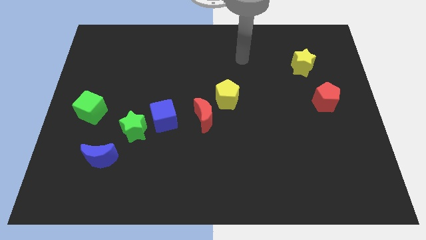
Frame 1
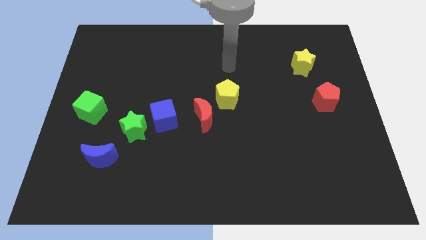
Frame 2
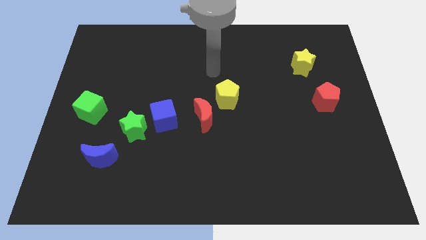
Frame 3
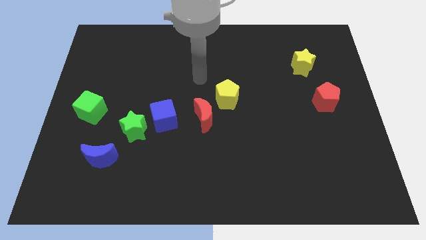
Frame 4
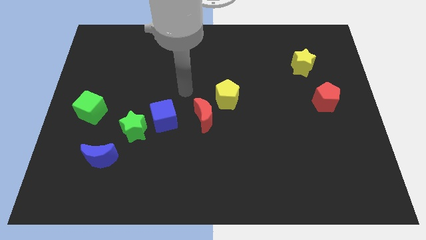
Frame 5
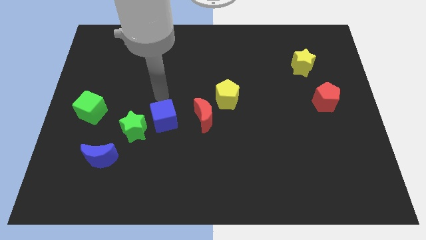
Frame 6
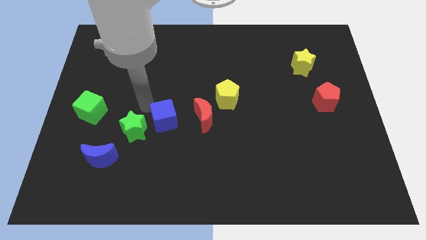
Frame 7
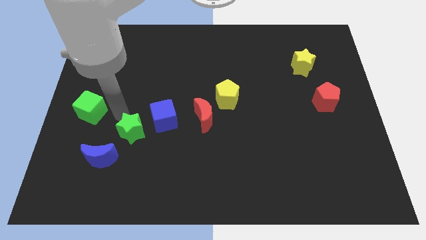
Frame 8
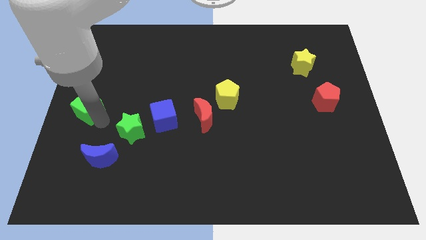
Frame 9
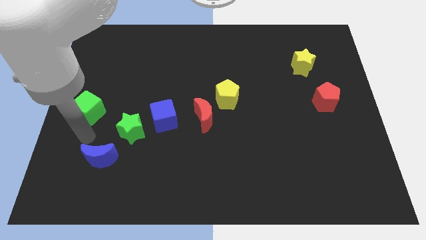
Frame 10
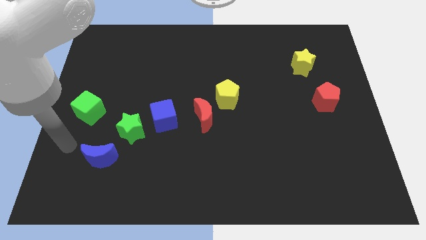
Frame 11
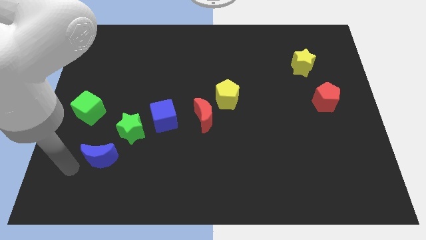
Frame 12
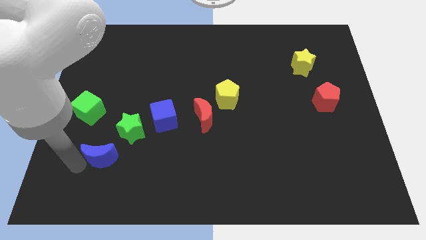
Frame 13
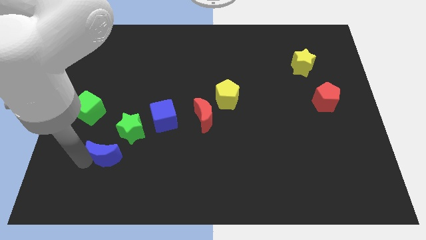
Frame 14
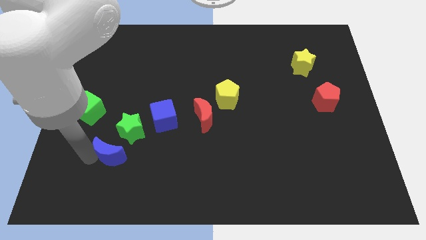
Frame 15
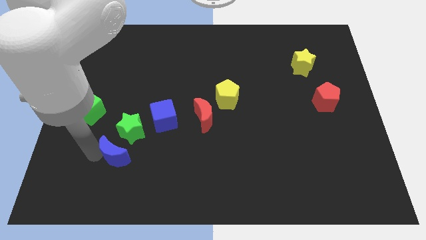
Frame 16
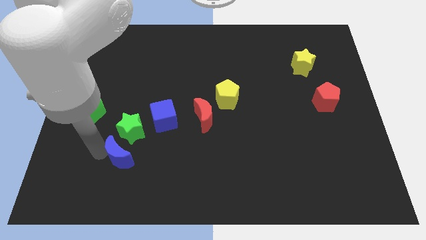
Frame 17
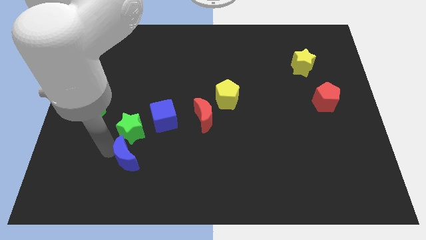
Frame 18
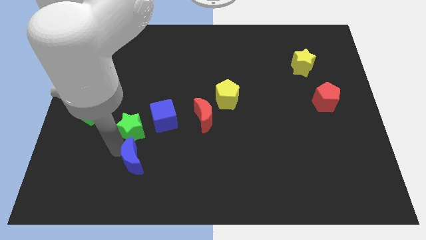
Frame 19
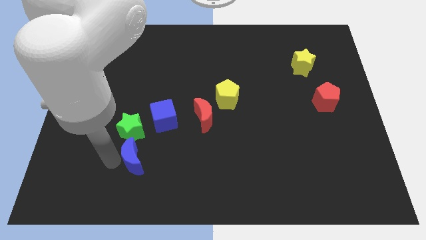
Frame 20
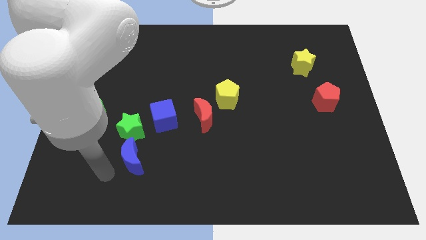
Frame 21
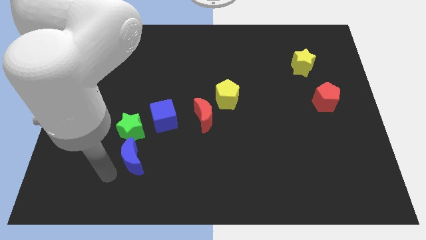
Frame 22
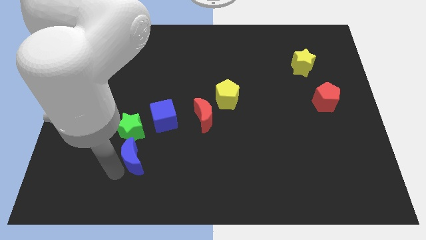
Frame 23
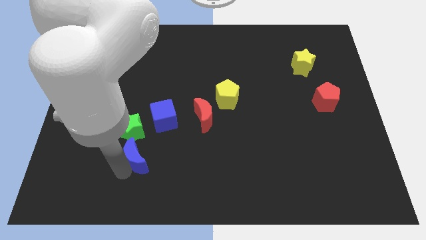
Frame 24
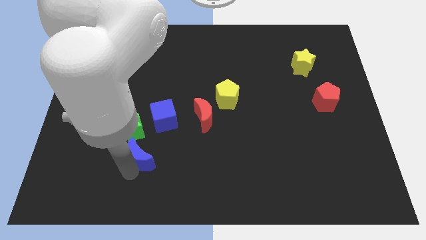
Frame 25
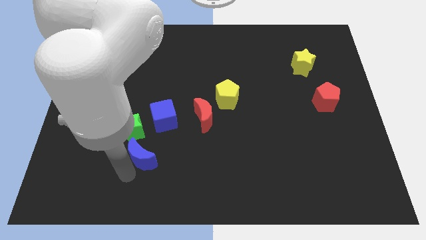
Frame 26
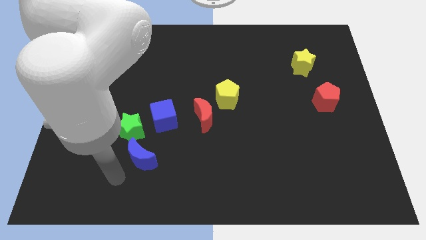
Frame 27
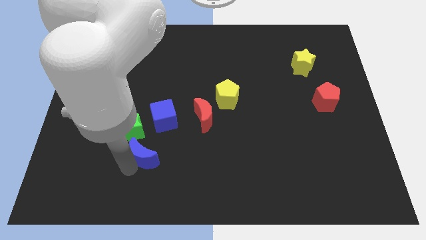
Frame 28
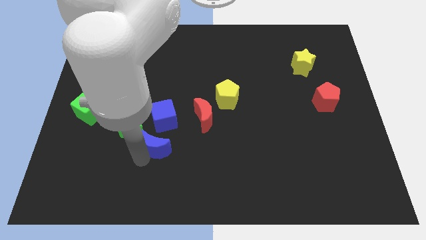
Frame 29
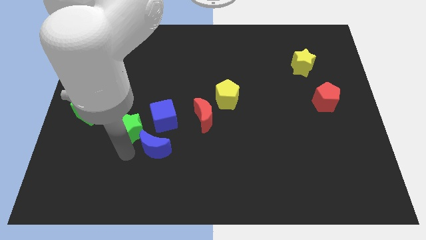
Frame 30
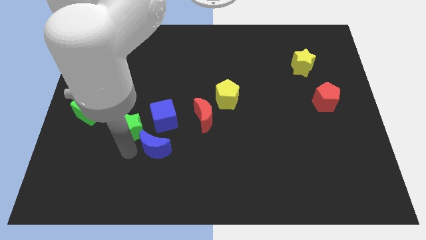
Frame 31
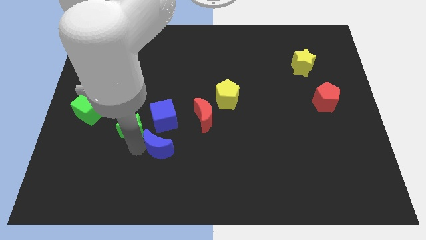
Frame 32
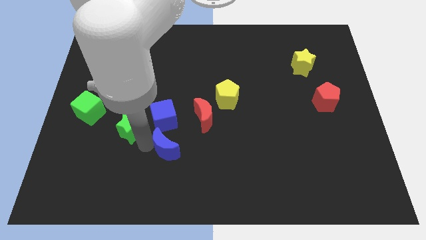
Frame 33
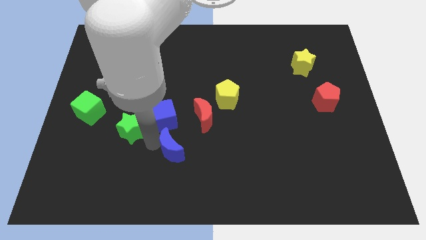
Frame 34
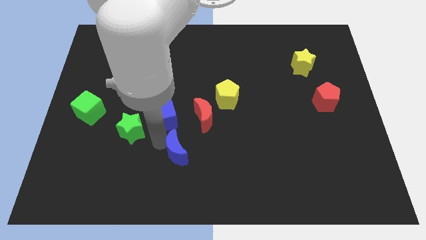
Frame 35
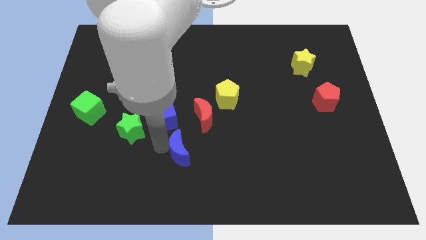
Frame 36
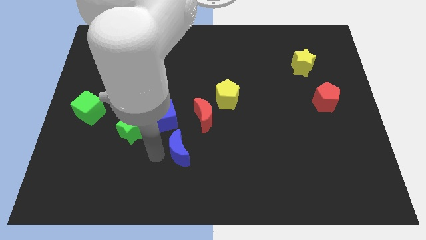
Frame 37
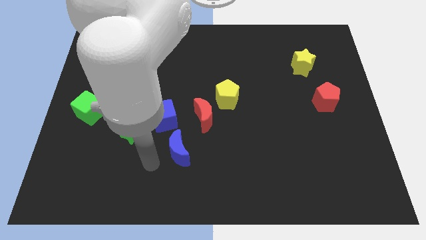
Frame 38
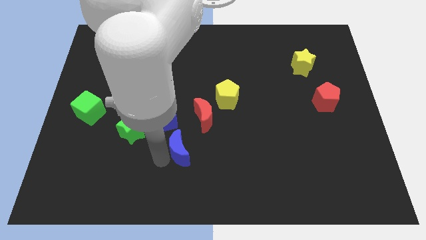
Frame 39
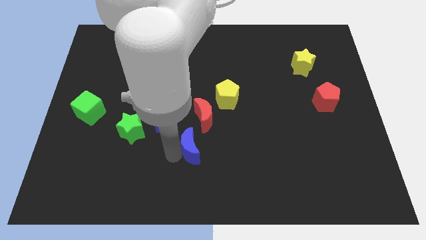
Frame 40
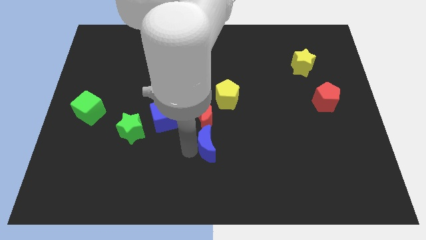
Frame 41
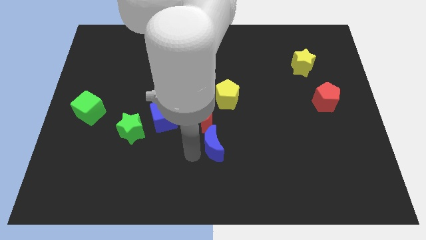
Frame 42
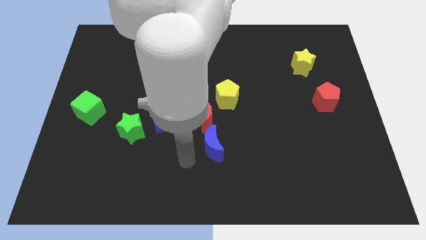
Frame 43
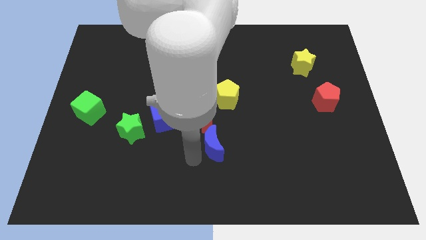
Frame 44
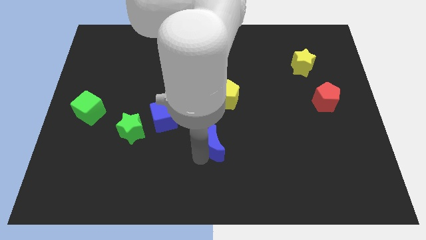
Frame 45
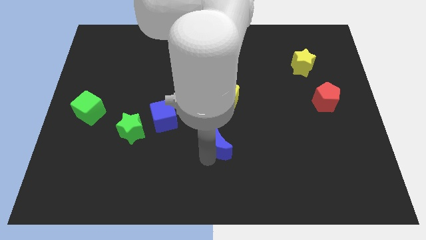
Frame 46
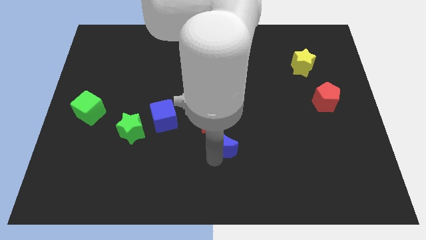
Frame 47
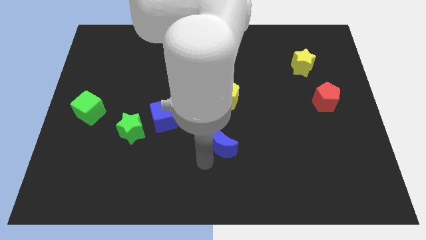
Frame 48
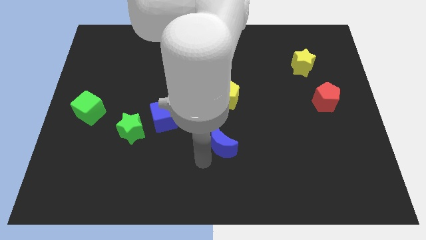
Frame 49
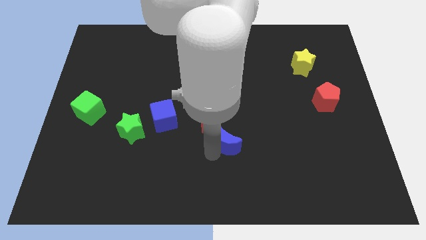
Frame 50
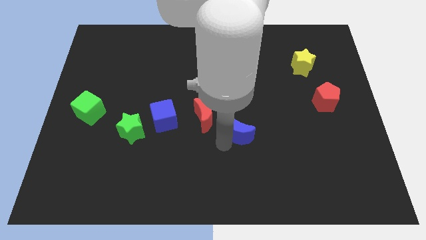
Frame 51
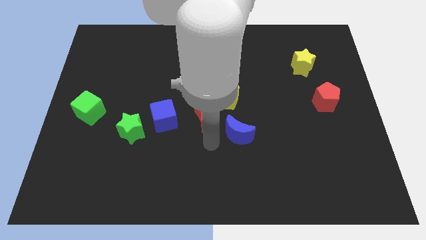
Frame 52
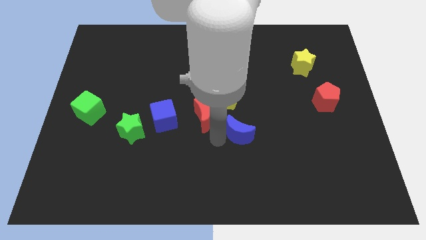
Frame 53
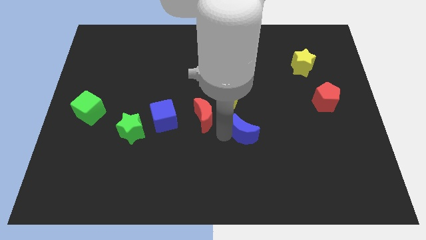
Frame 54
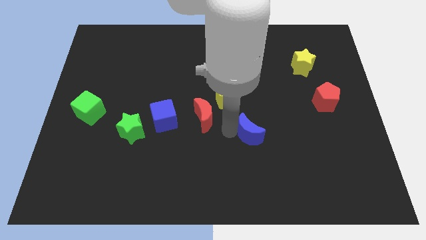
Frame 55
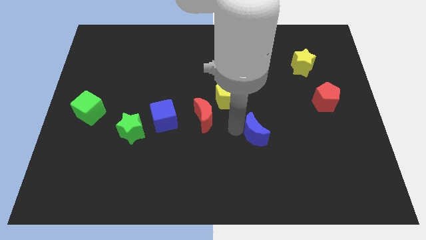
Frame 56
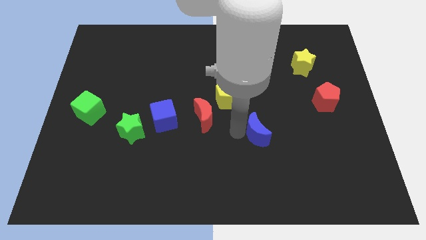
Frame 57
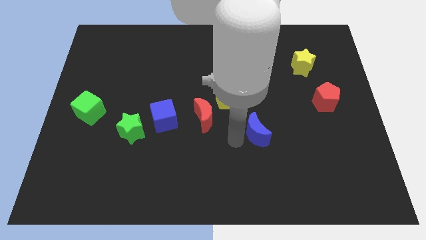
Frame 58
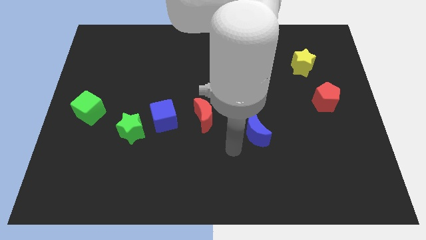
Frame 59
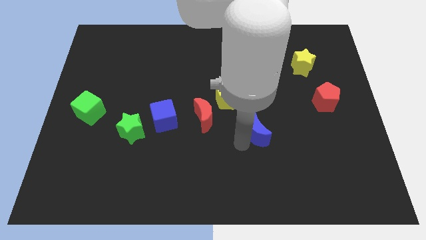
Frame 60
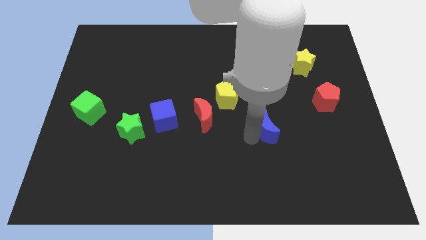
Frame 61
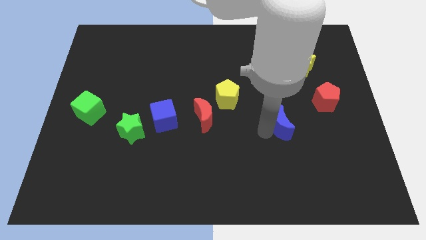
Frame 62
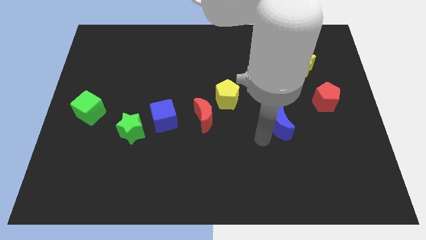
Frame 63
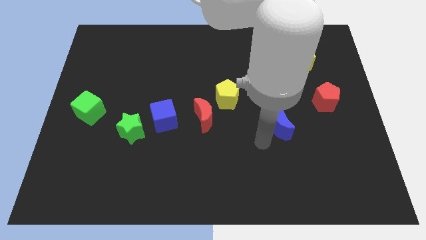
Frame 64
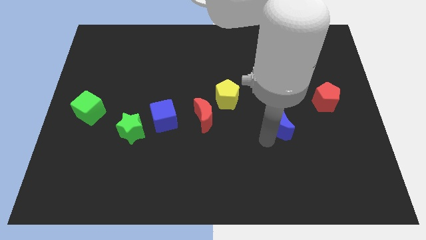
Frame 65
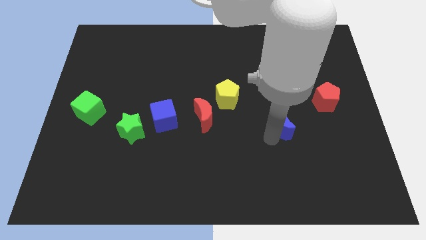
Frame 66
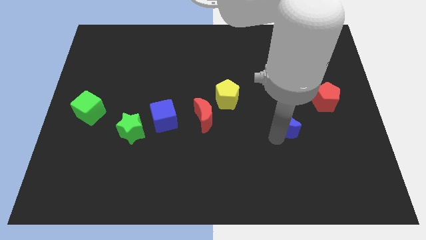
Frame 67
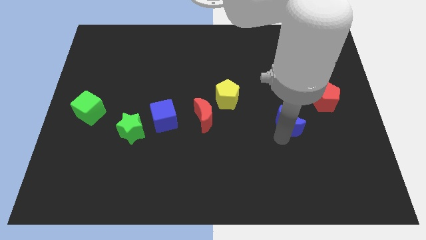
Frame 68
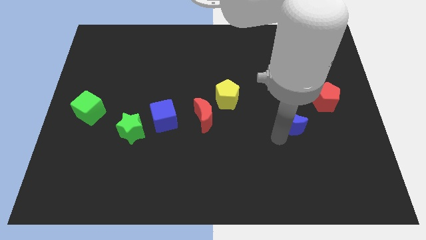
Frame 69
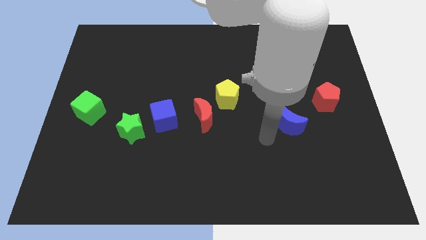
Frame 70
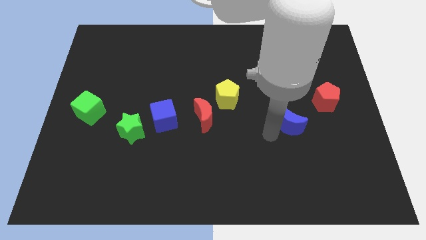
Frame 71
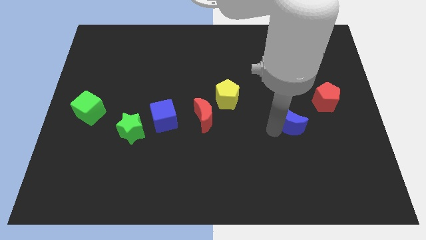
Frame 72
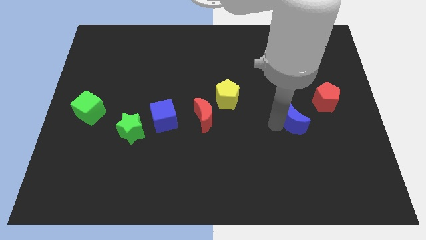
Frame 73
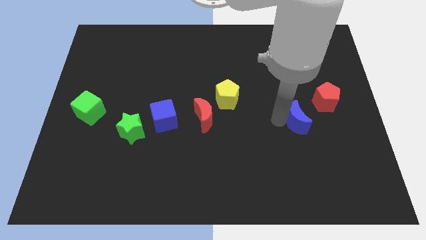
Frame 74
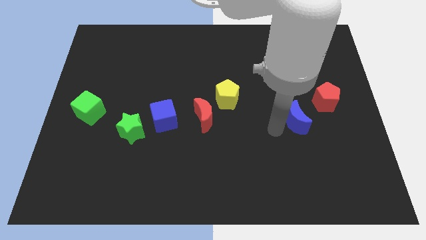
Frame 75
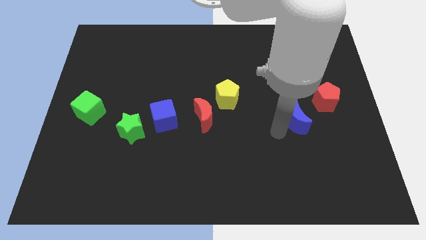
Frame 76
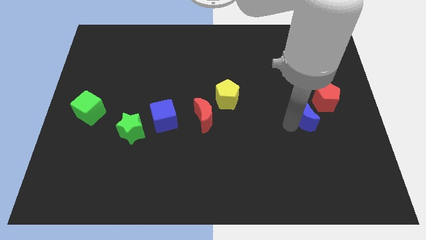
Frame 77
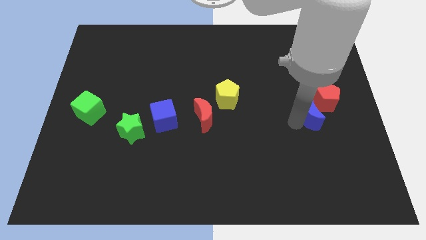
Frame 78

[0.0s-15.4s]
push the blue moon to the bottom side of the yellow star
